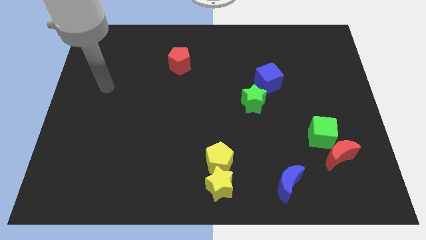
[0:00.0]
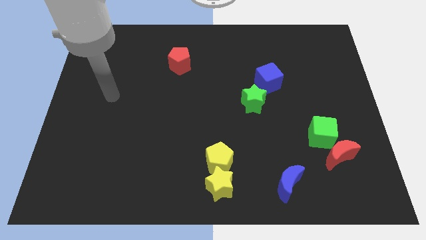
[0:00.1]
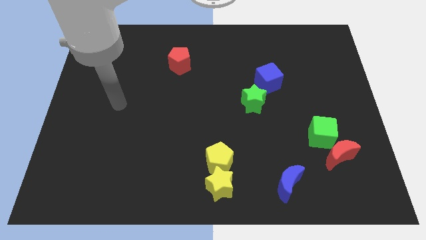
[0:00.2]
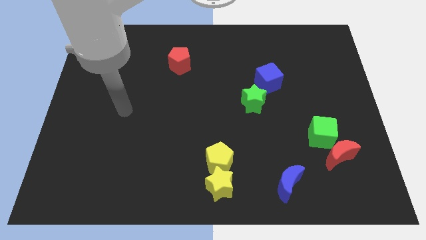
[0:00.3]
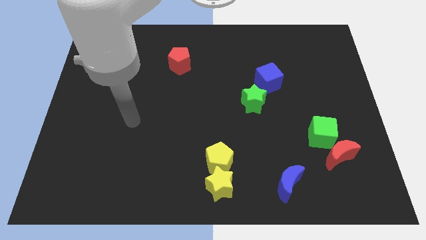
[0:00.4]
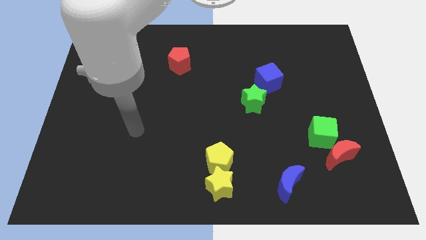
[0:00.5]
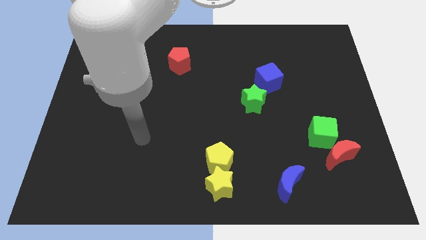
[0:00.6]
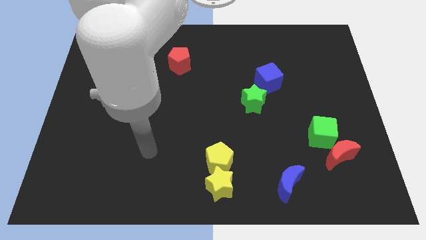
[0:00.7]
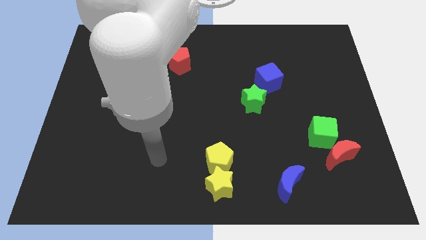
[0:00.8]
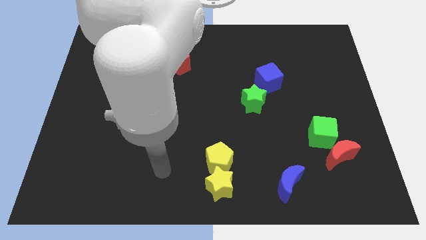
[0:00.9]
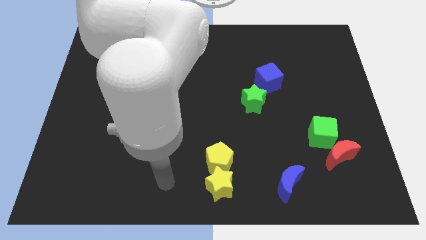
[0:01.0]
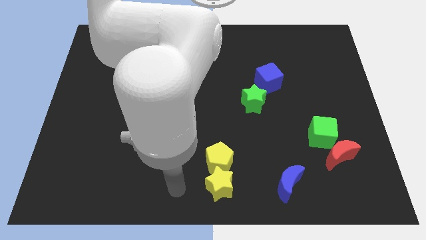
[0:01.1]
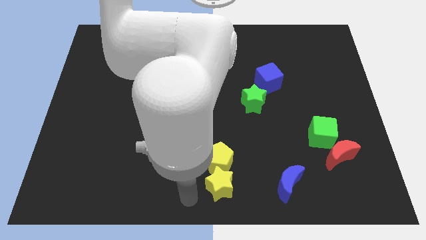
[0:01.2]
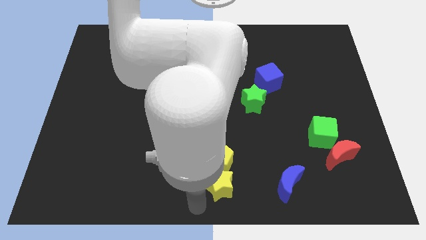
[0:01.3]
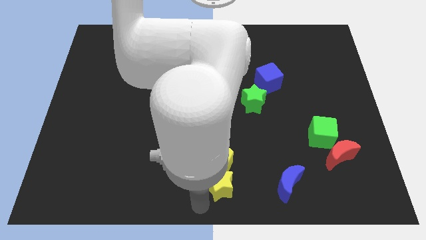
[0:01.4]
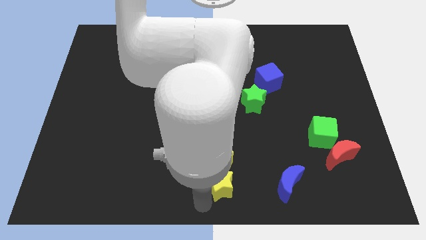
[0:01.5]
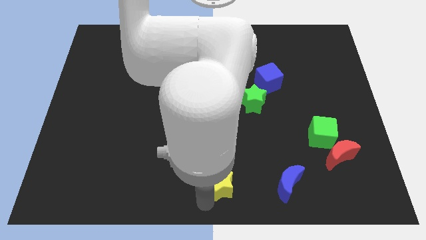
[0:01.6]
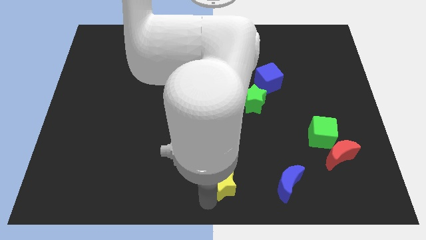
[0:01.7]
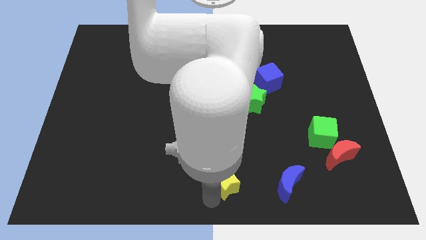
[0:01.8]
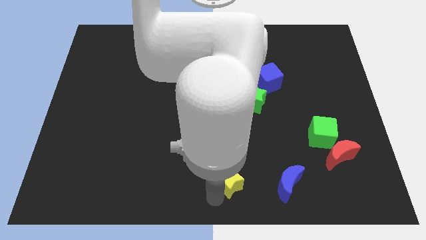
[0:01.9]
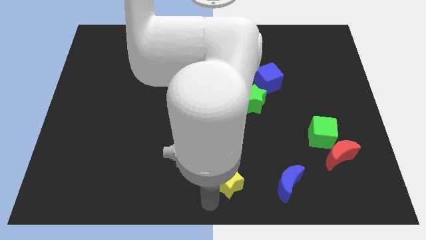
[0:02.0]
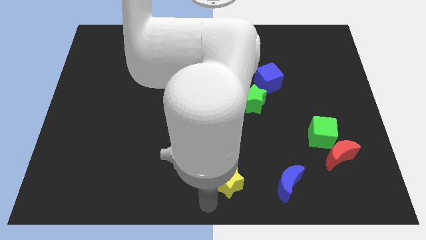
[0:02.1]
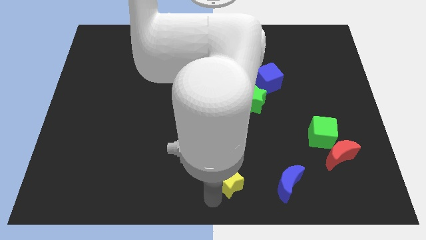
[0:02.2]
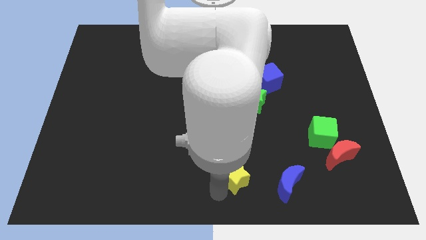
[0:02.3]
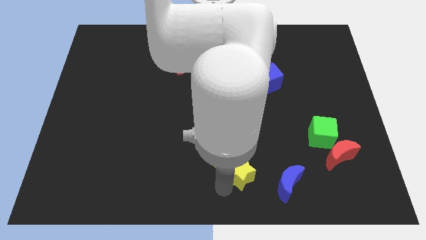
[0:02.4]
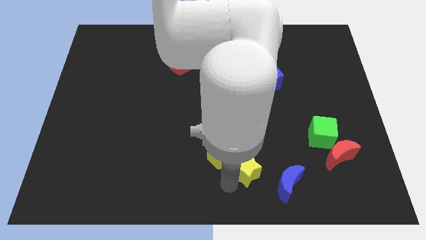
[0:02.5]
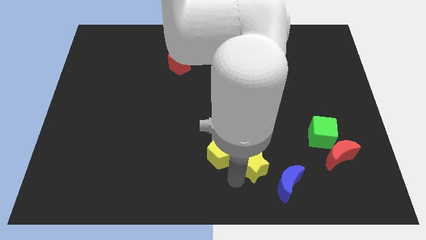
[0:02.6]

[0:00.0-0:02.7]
move the yellow star slightly upwards and then to the right

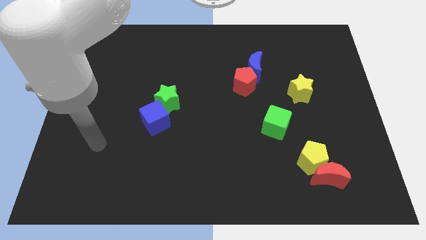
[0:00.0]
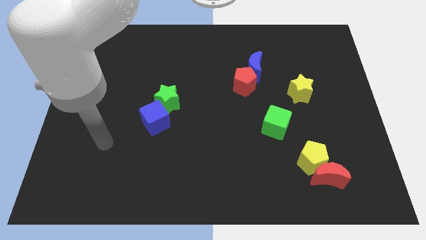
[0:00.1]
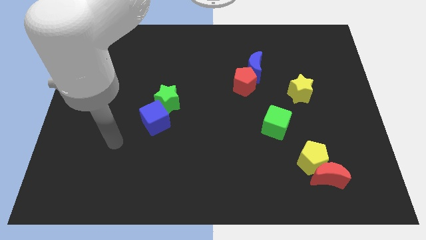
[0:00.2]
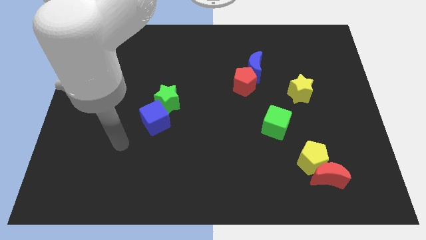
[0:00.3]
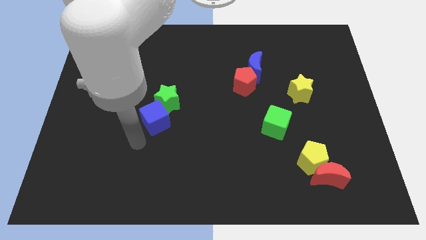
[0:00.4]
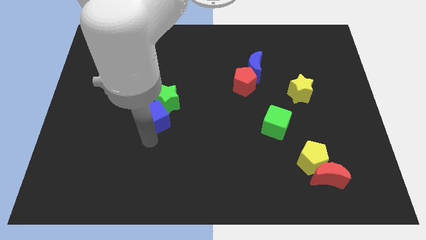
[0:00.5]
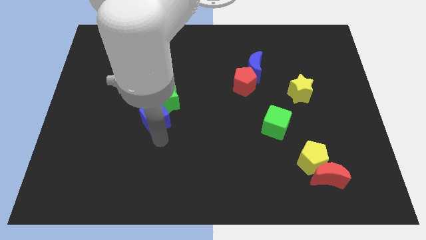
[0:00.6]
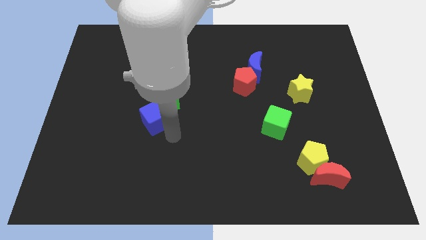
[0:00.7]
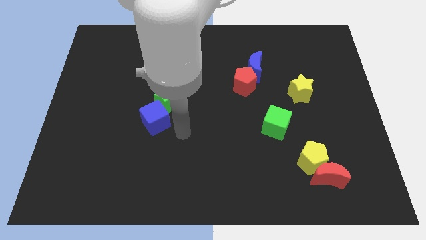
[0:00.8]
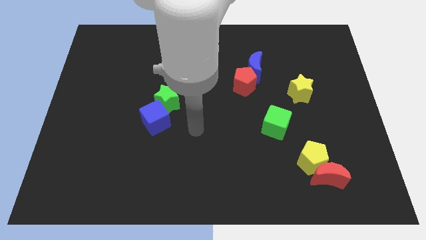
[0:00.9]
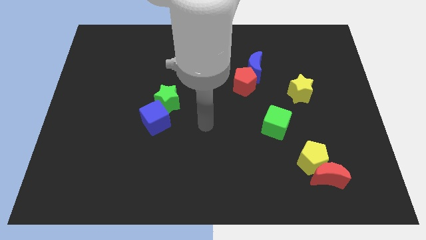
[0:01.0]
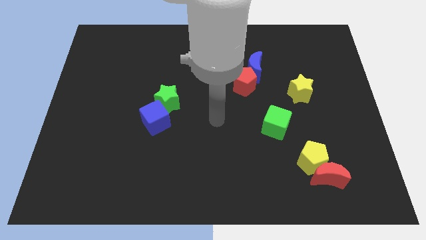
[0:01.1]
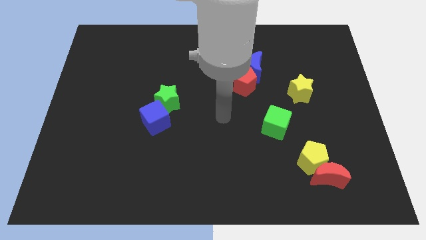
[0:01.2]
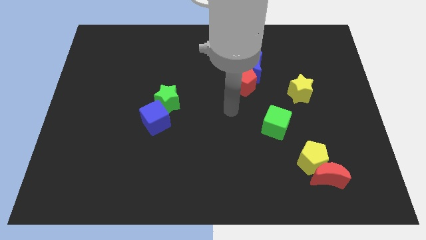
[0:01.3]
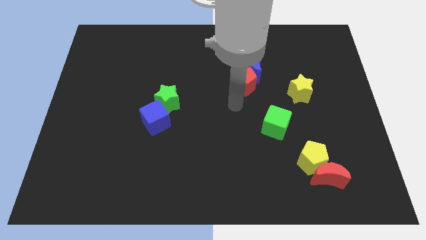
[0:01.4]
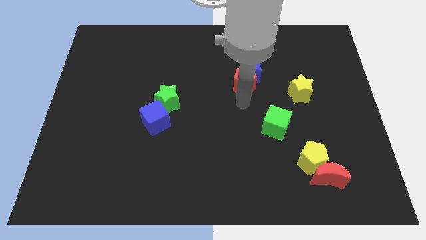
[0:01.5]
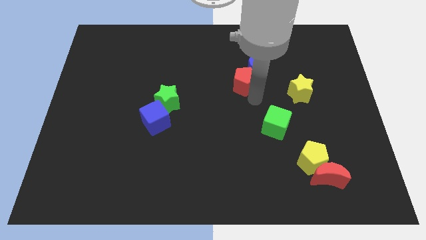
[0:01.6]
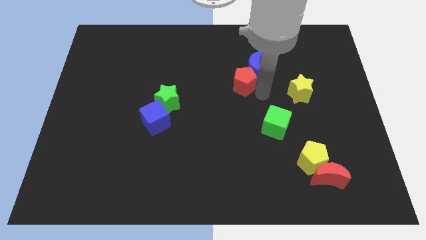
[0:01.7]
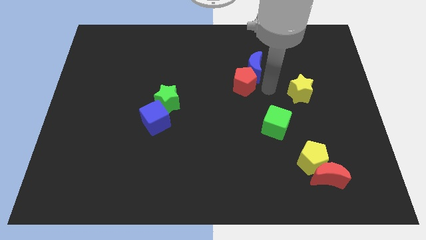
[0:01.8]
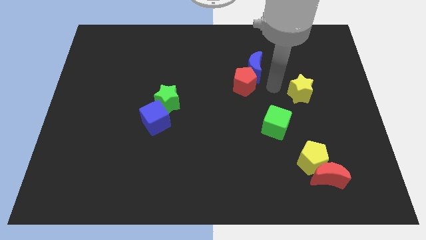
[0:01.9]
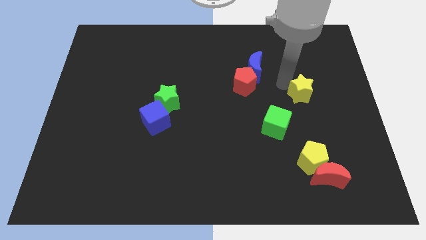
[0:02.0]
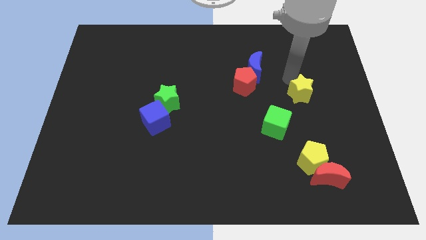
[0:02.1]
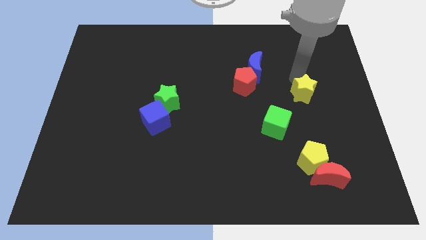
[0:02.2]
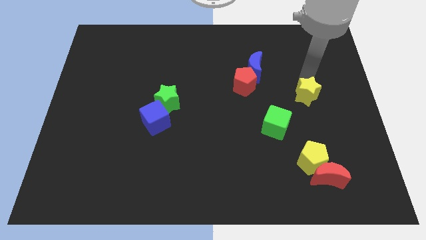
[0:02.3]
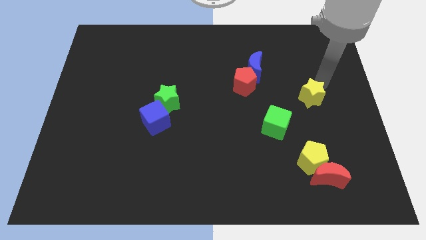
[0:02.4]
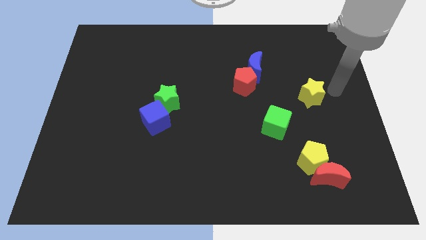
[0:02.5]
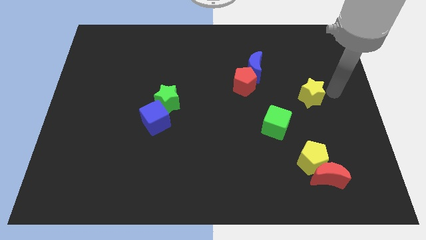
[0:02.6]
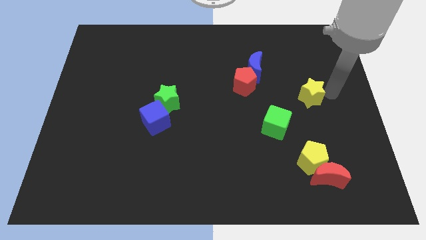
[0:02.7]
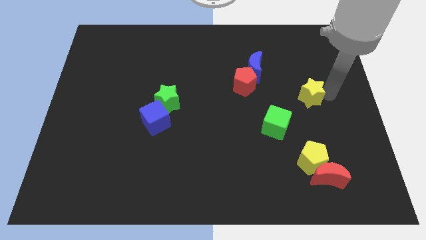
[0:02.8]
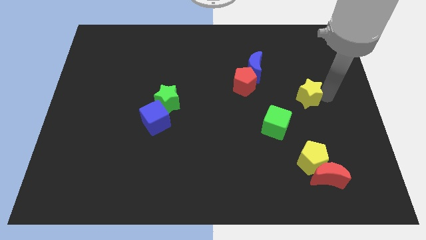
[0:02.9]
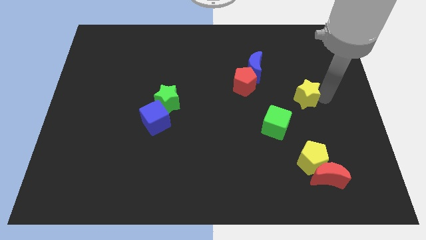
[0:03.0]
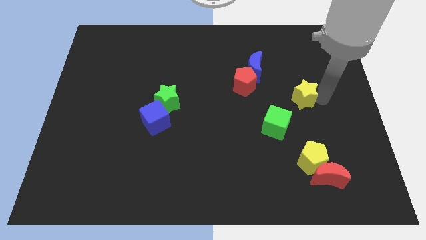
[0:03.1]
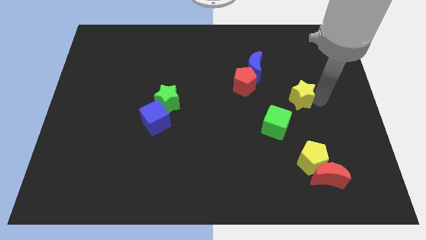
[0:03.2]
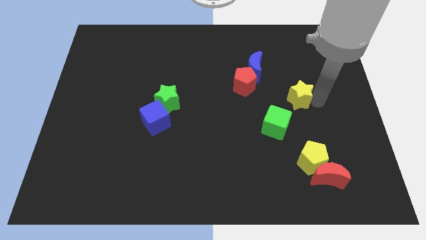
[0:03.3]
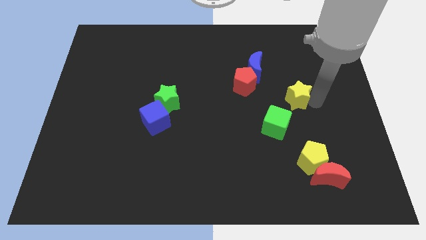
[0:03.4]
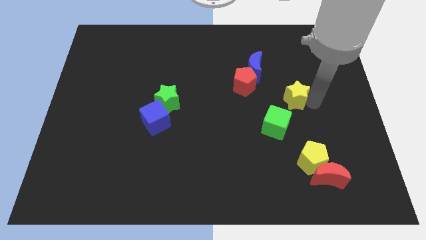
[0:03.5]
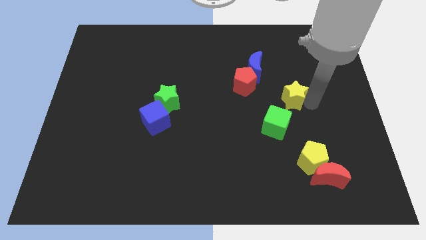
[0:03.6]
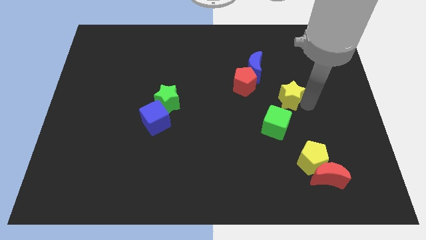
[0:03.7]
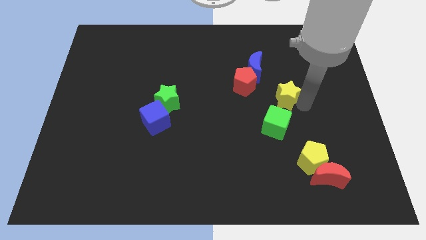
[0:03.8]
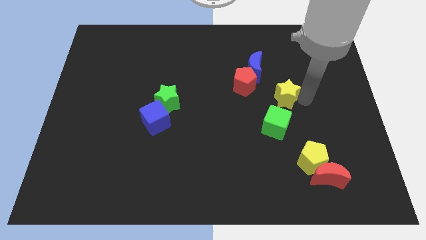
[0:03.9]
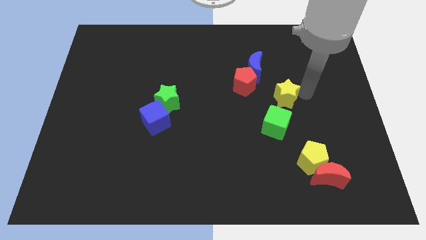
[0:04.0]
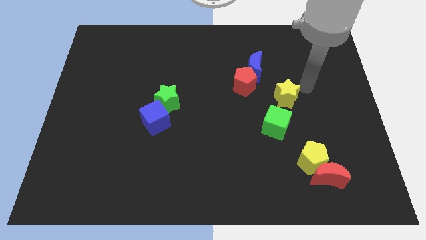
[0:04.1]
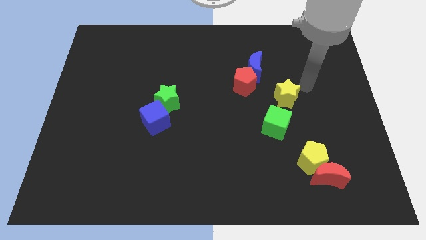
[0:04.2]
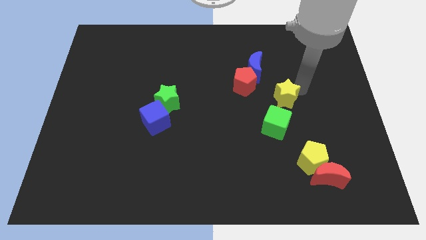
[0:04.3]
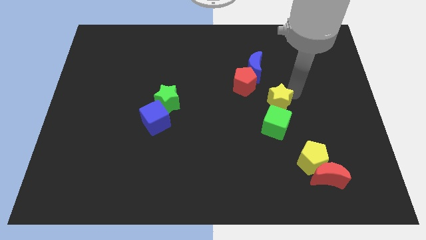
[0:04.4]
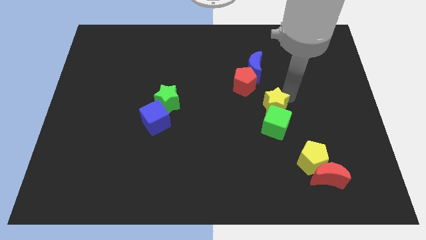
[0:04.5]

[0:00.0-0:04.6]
slightly move the yellow star diagonally down and to the left

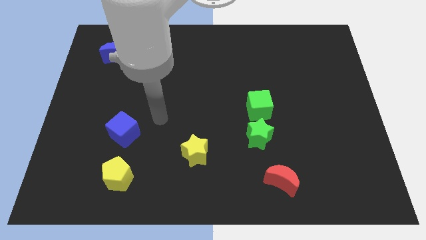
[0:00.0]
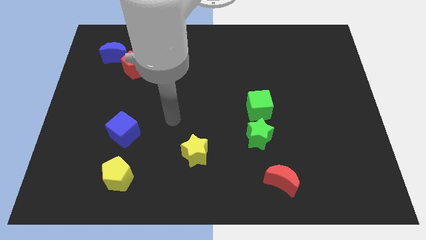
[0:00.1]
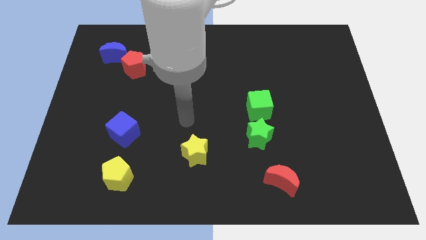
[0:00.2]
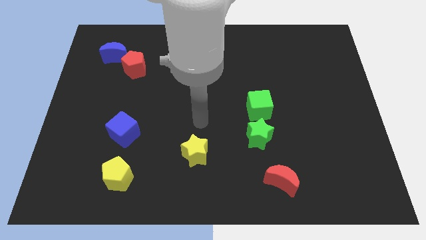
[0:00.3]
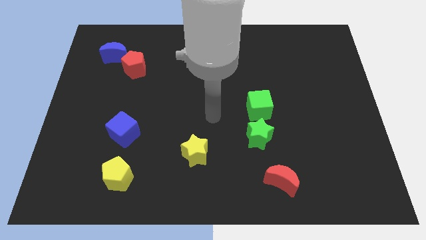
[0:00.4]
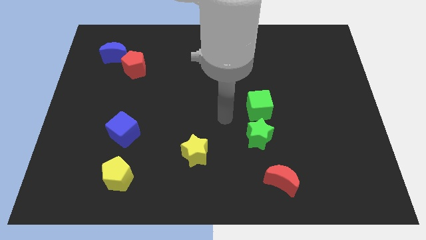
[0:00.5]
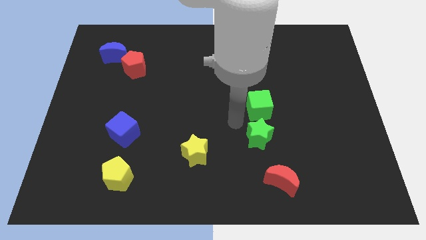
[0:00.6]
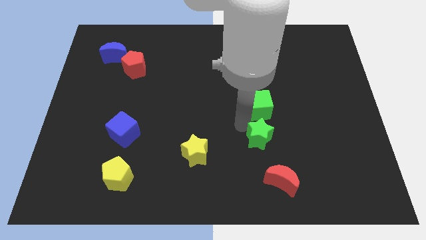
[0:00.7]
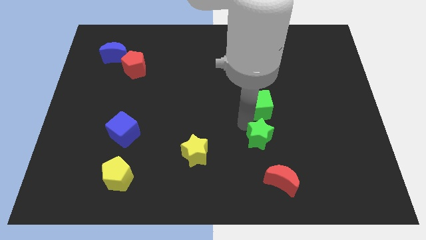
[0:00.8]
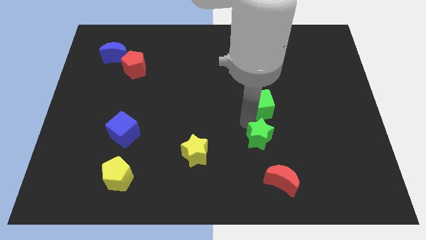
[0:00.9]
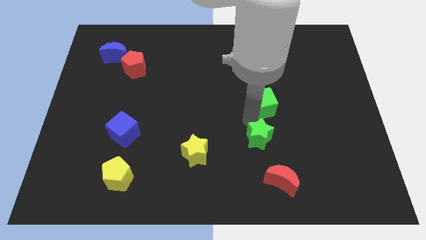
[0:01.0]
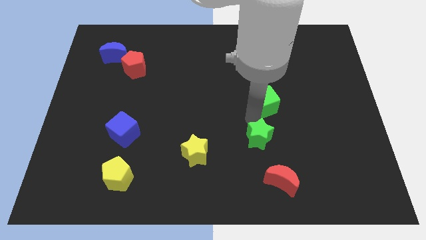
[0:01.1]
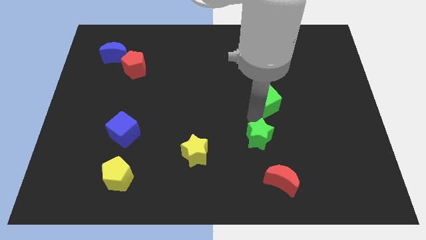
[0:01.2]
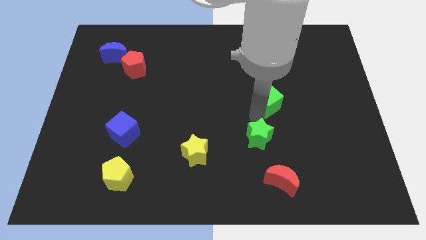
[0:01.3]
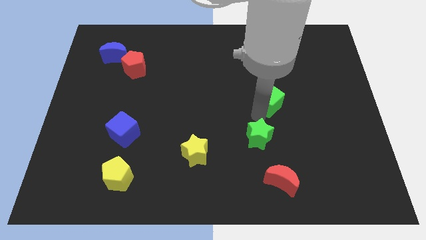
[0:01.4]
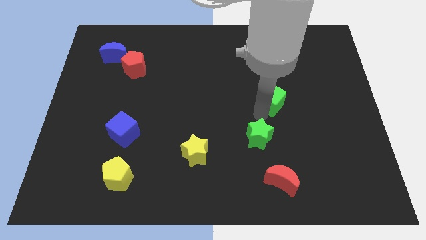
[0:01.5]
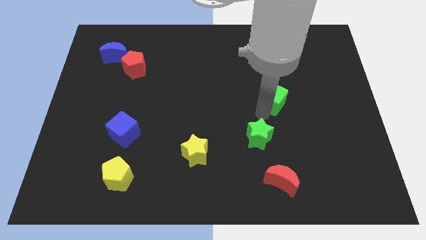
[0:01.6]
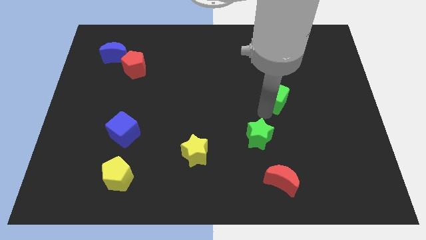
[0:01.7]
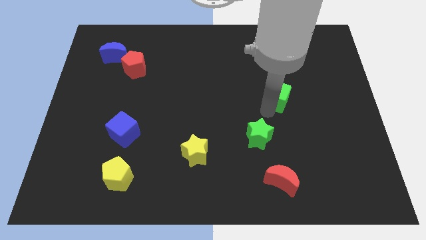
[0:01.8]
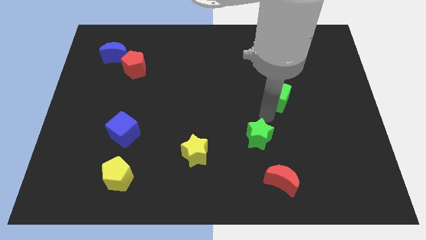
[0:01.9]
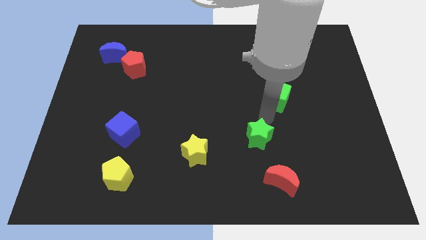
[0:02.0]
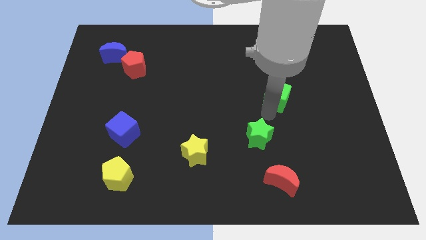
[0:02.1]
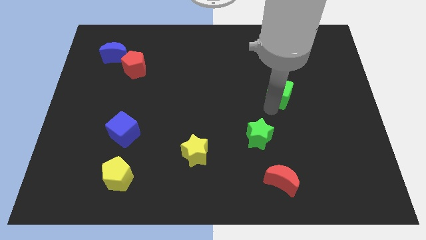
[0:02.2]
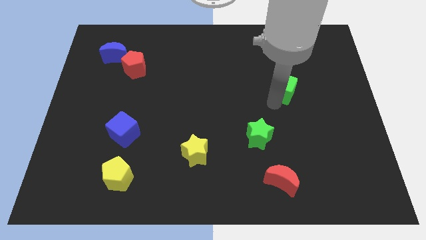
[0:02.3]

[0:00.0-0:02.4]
slightly push the green cube up and right diagonally
